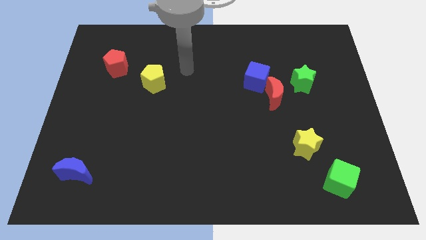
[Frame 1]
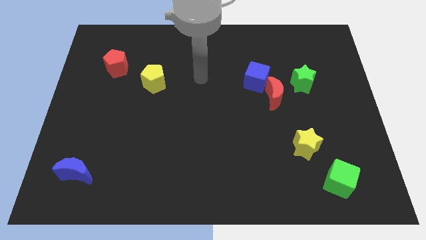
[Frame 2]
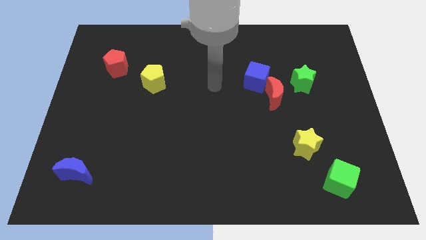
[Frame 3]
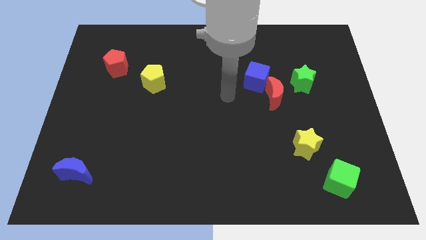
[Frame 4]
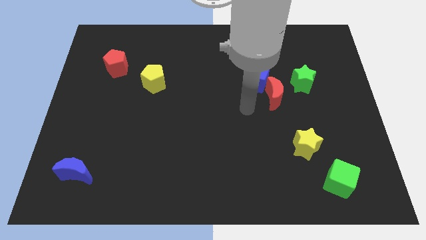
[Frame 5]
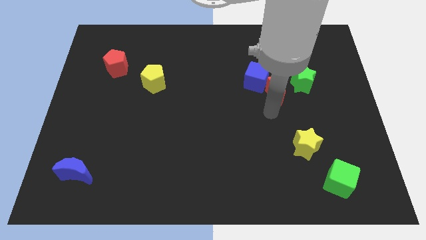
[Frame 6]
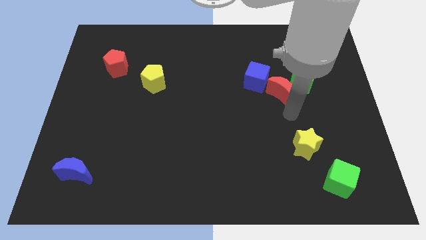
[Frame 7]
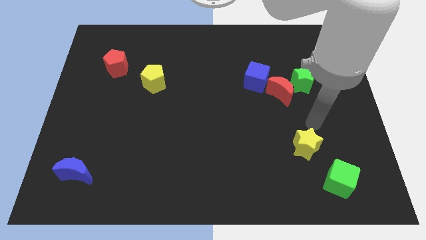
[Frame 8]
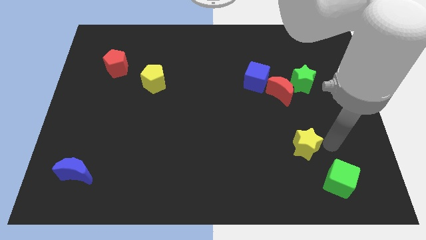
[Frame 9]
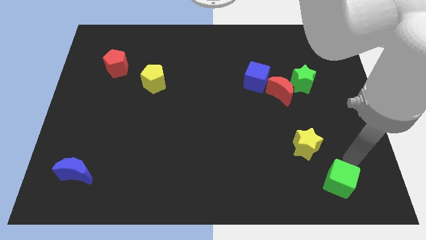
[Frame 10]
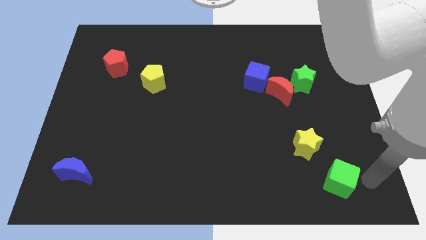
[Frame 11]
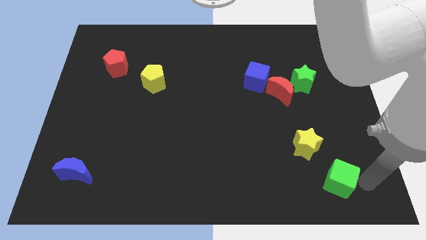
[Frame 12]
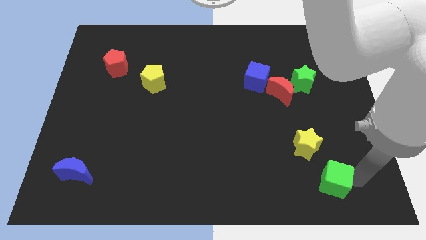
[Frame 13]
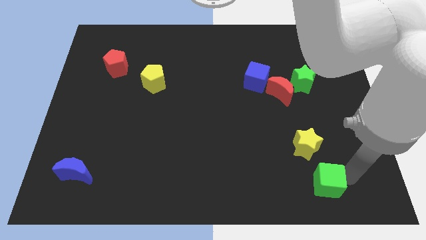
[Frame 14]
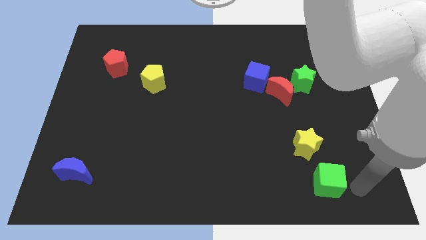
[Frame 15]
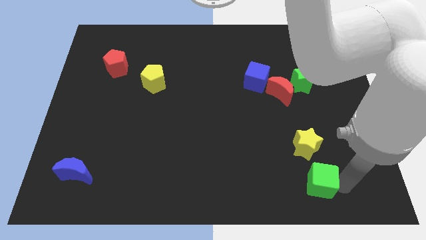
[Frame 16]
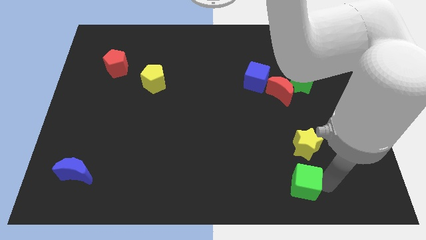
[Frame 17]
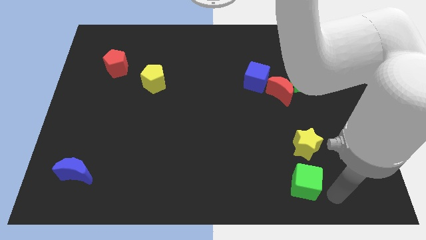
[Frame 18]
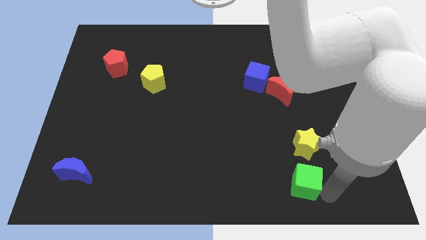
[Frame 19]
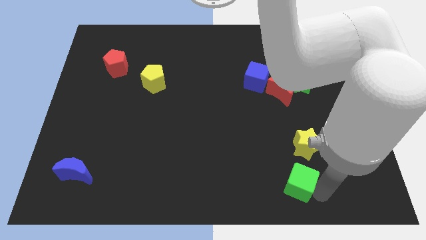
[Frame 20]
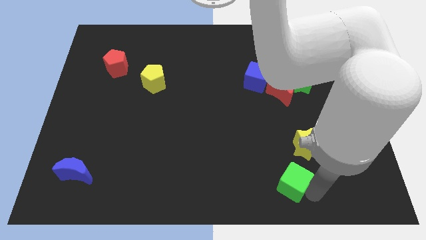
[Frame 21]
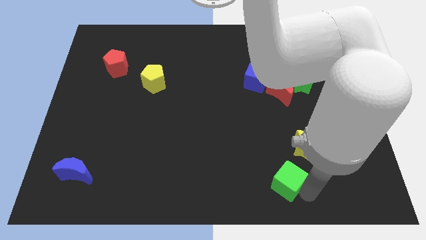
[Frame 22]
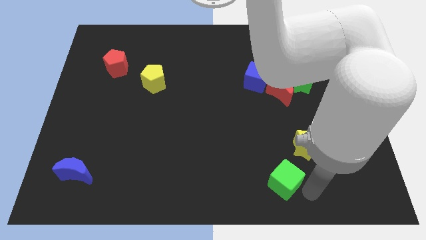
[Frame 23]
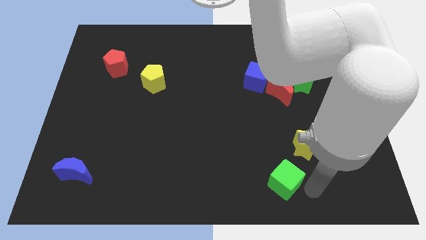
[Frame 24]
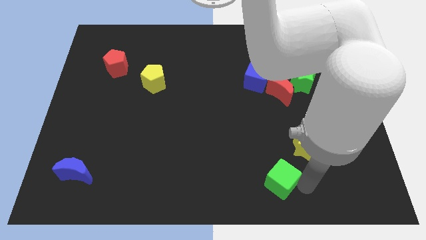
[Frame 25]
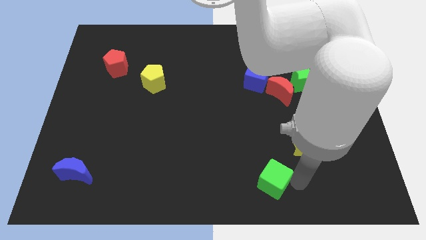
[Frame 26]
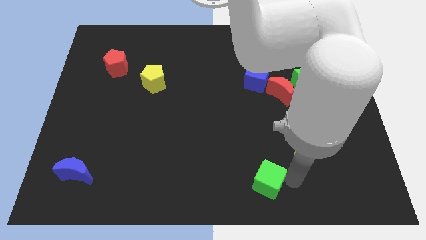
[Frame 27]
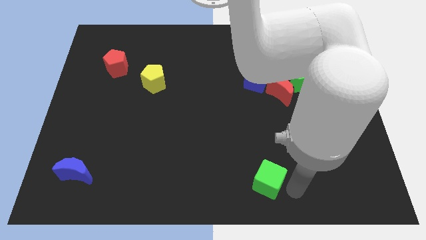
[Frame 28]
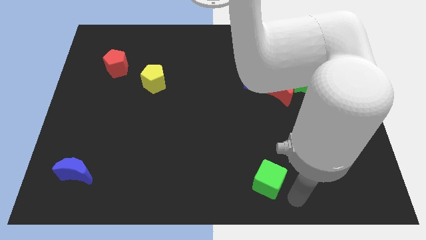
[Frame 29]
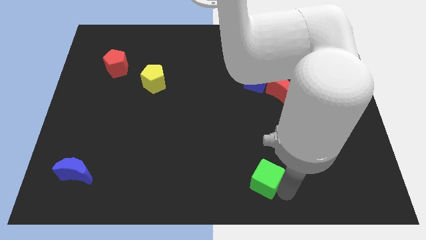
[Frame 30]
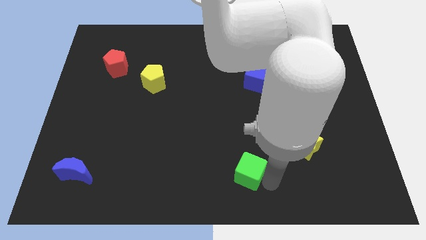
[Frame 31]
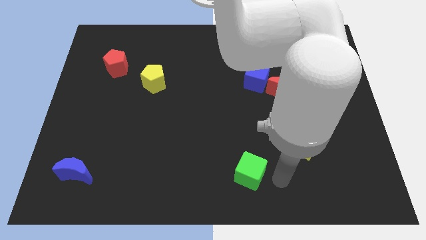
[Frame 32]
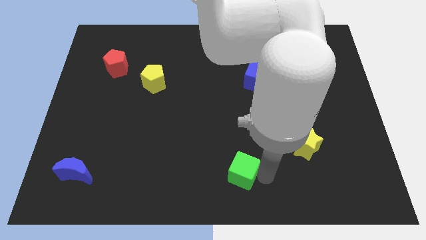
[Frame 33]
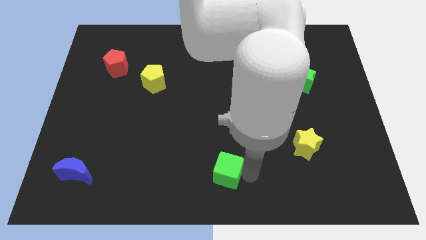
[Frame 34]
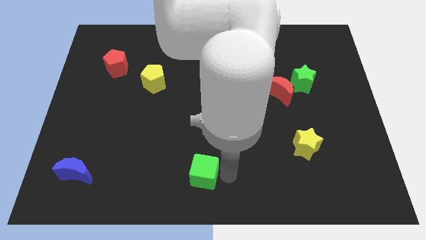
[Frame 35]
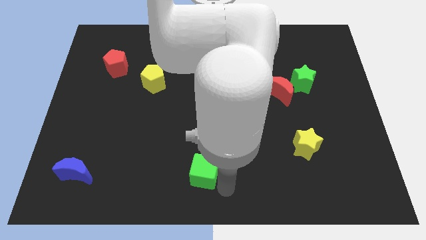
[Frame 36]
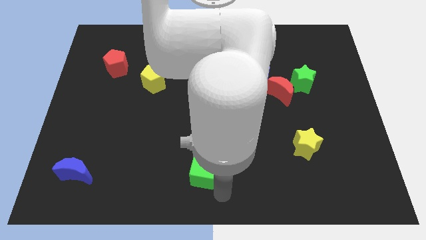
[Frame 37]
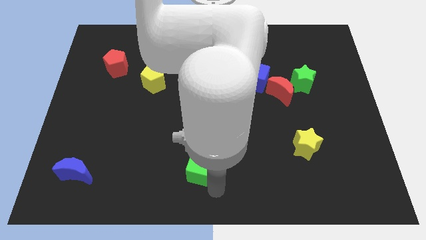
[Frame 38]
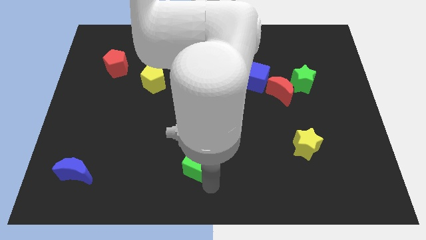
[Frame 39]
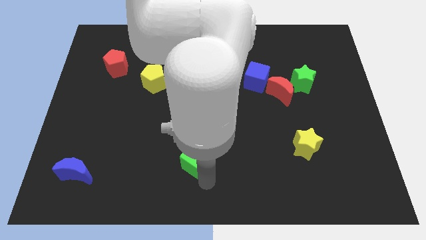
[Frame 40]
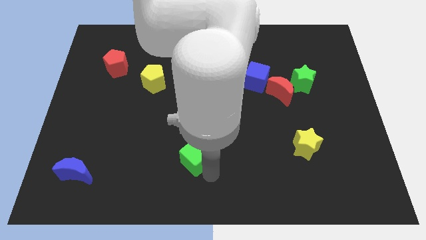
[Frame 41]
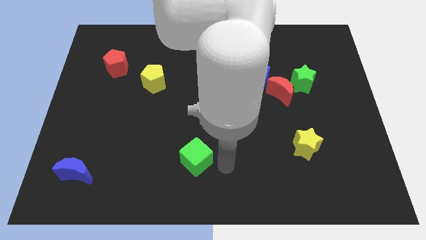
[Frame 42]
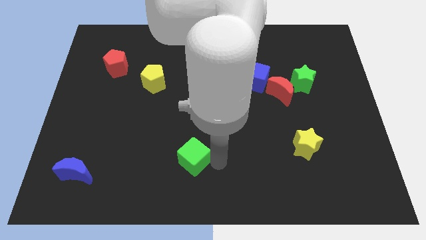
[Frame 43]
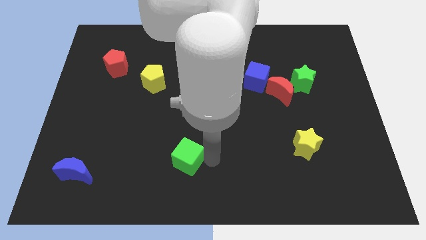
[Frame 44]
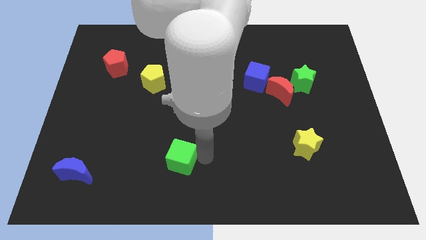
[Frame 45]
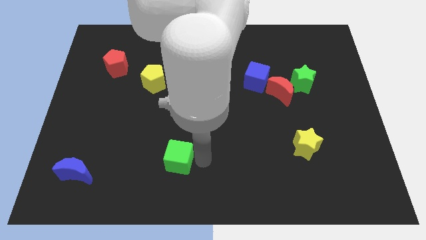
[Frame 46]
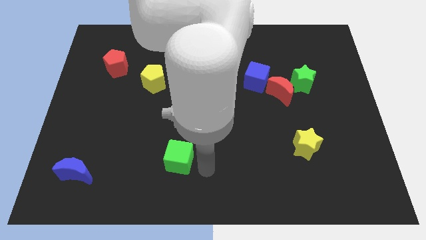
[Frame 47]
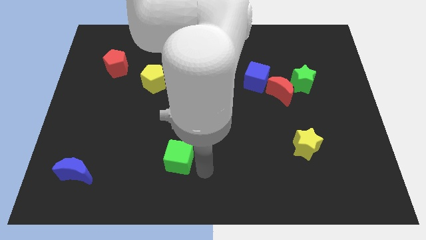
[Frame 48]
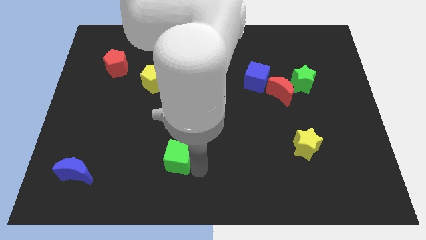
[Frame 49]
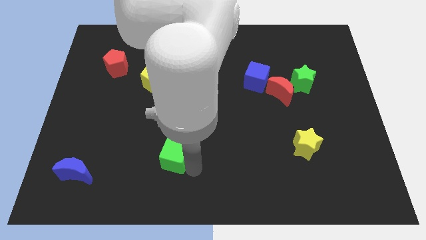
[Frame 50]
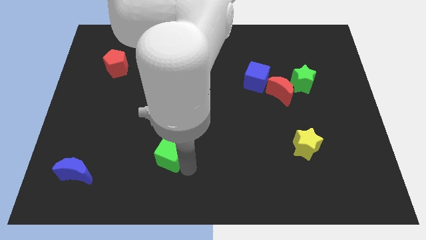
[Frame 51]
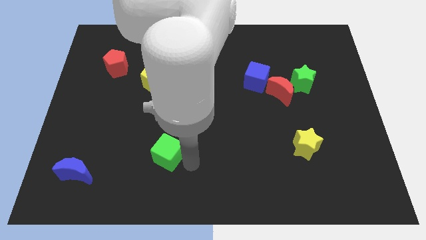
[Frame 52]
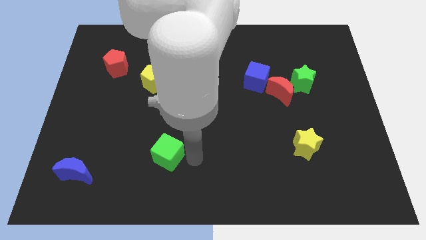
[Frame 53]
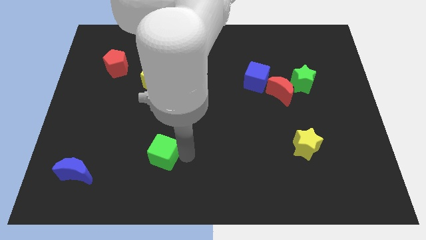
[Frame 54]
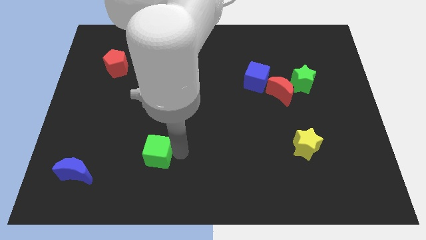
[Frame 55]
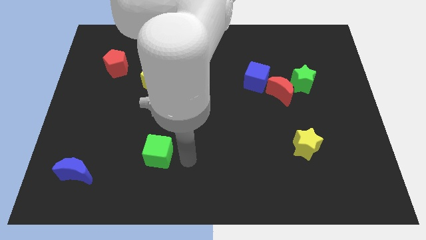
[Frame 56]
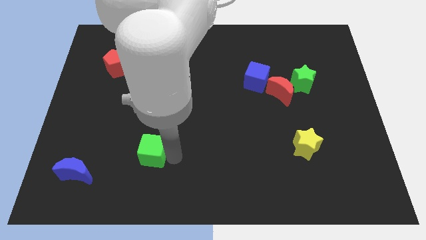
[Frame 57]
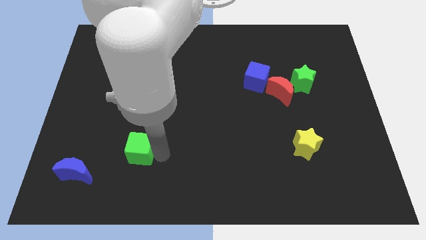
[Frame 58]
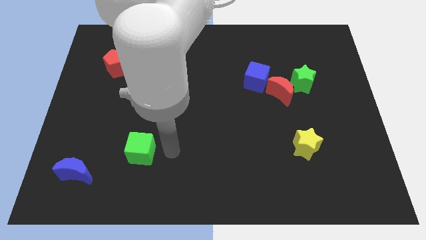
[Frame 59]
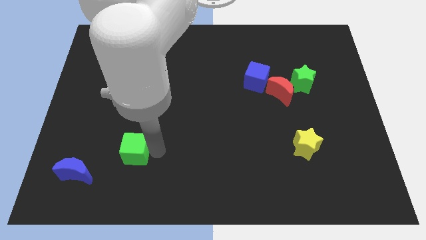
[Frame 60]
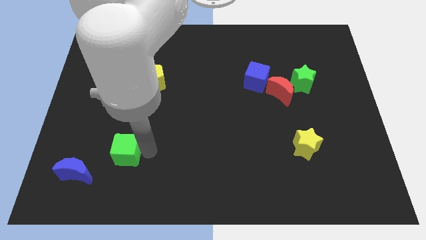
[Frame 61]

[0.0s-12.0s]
put the green cube to the top right side of the blue moon

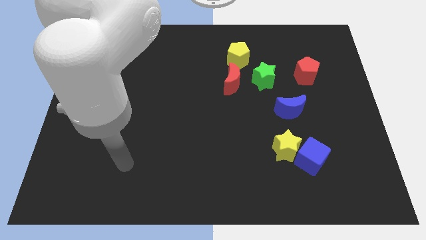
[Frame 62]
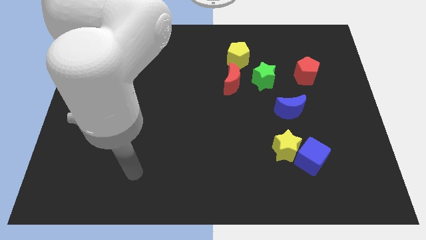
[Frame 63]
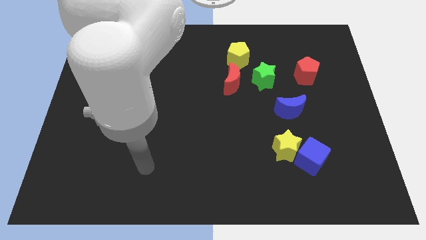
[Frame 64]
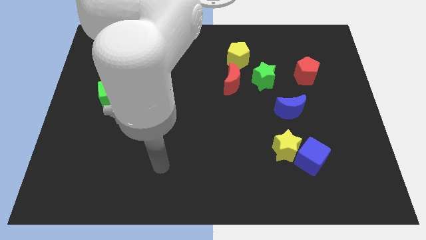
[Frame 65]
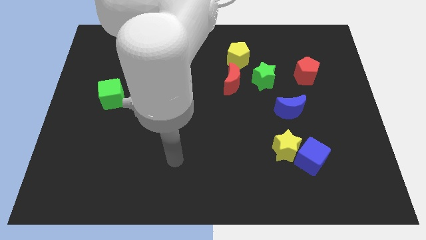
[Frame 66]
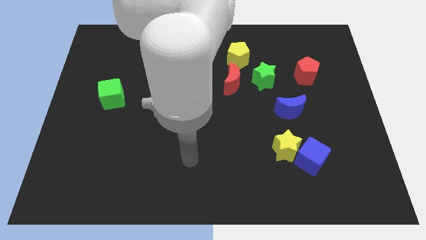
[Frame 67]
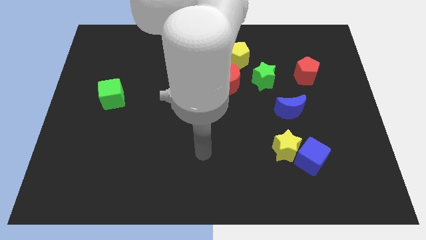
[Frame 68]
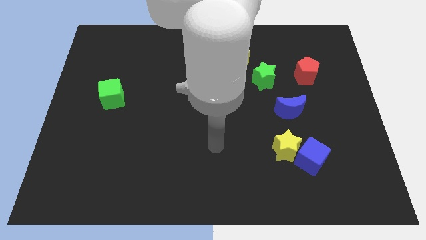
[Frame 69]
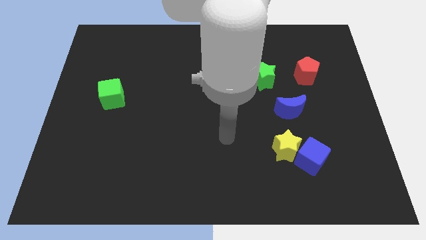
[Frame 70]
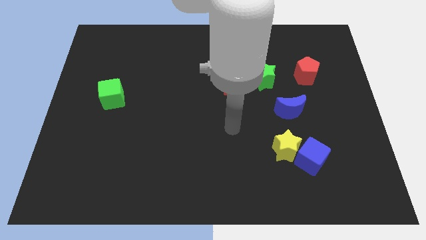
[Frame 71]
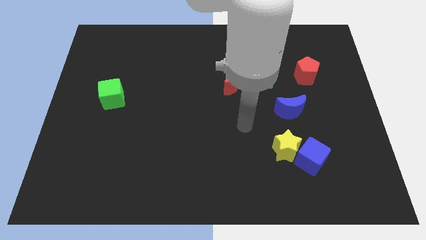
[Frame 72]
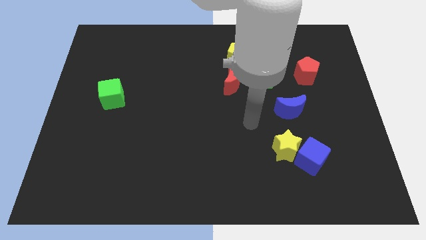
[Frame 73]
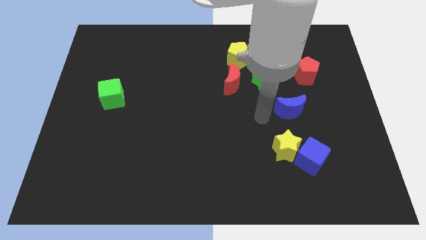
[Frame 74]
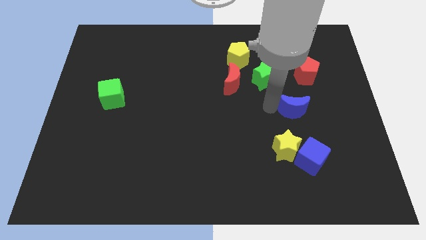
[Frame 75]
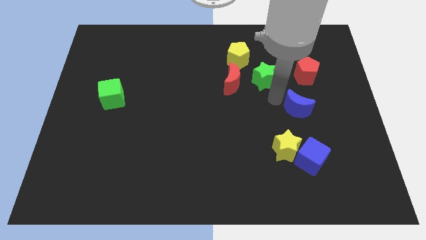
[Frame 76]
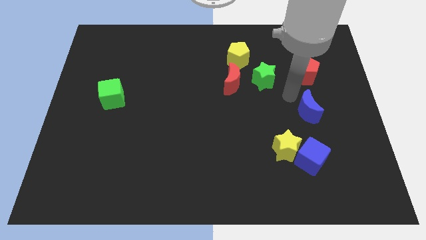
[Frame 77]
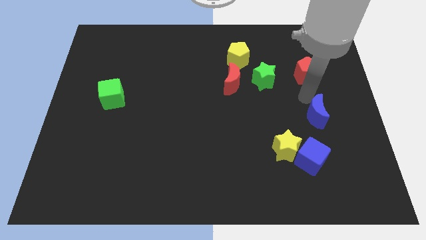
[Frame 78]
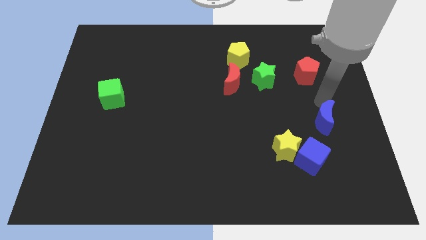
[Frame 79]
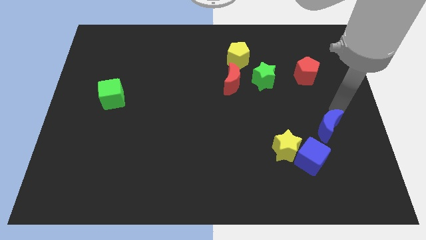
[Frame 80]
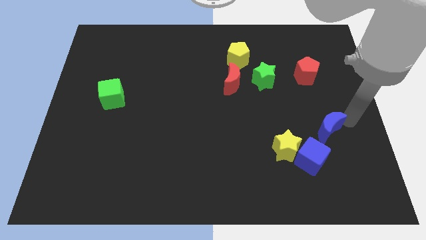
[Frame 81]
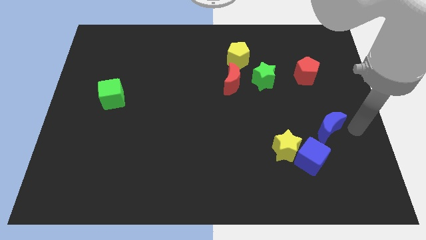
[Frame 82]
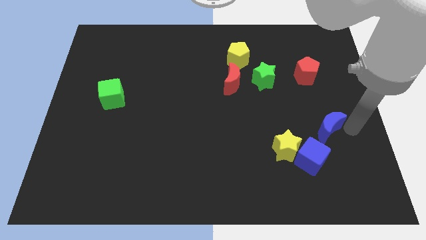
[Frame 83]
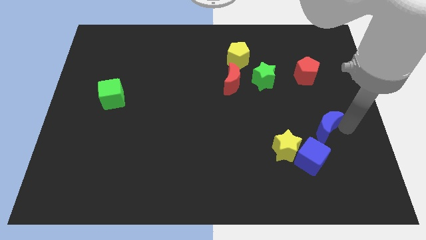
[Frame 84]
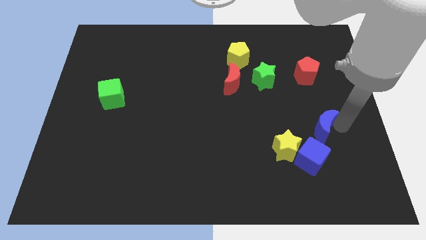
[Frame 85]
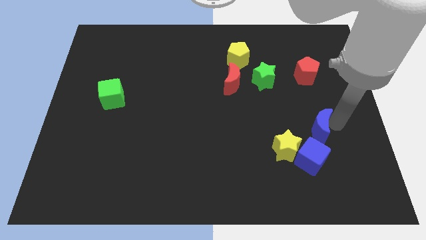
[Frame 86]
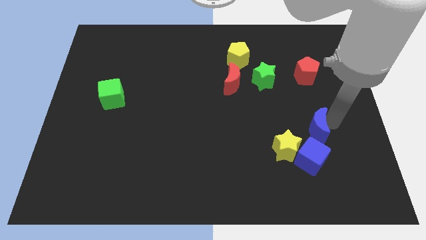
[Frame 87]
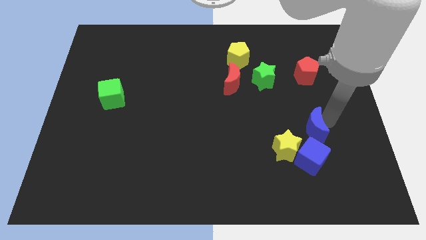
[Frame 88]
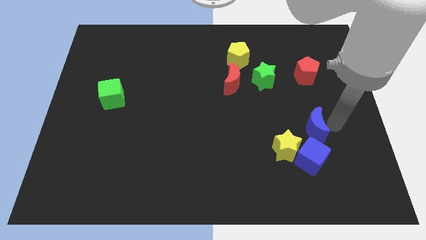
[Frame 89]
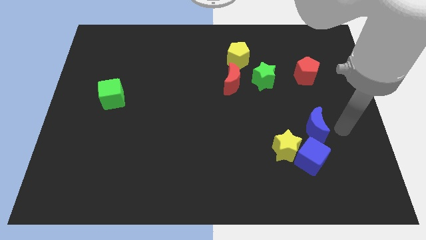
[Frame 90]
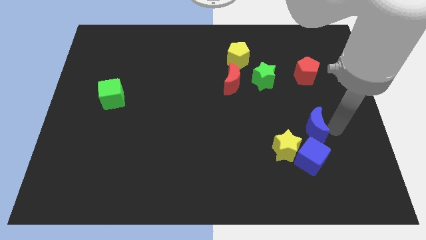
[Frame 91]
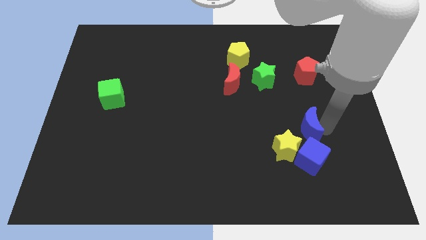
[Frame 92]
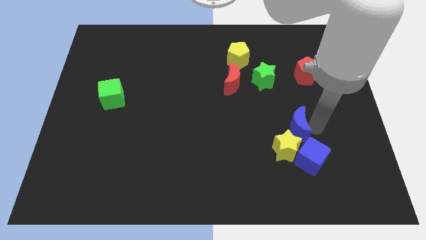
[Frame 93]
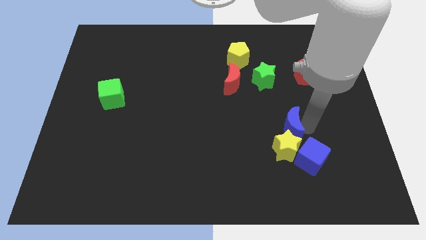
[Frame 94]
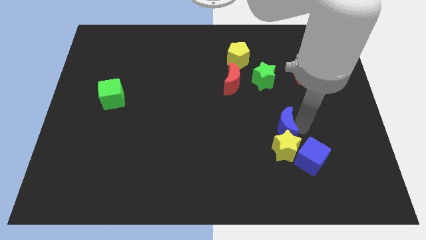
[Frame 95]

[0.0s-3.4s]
put the blue moon to the top left side of the yellow star
